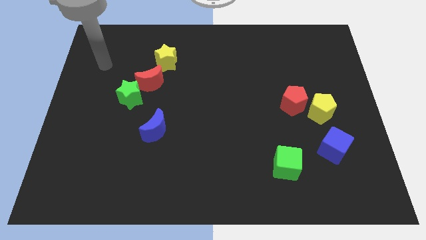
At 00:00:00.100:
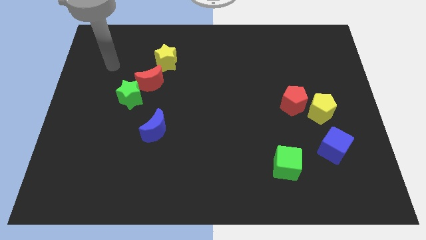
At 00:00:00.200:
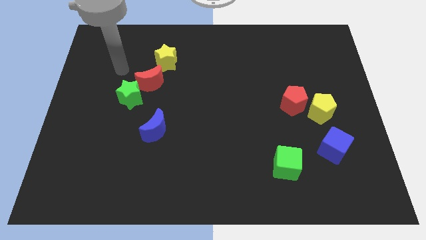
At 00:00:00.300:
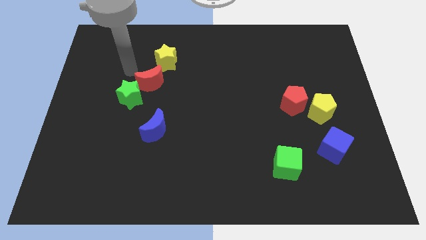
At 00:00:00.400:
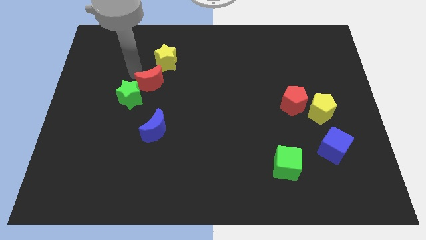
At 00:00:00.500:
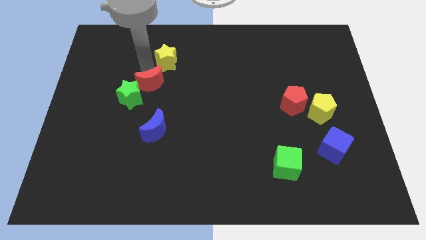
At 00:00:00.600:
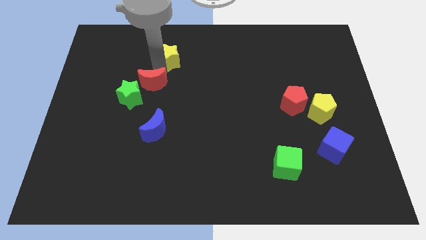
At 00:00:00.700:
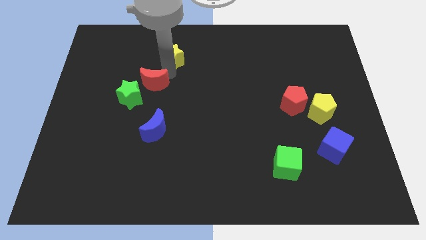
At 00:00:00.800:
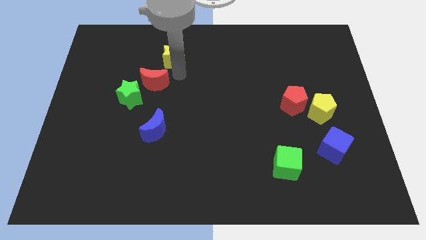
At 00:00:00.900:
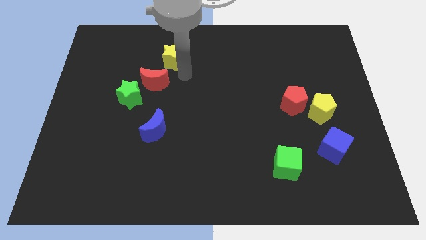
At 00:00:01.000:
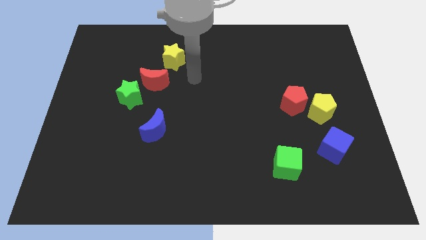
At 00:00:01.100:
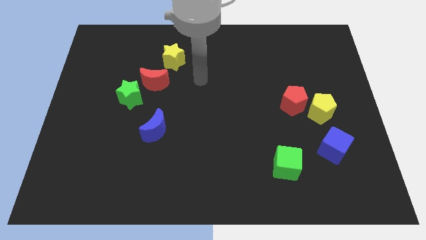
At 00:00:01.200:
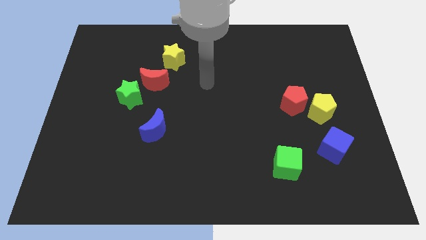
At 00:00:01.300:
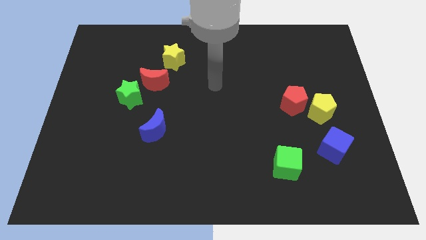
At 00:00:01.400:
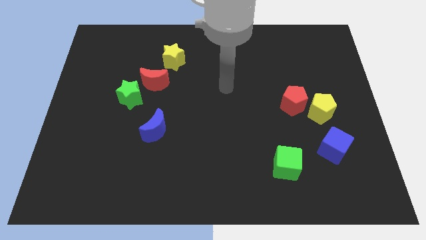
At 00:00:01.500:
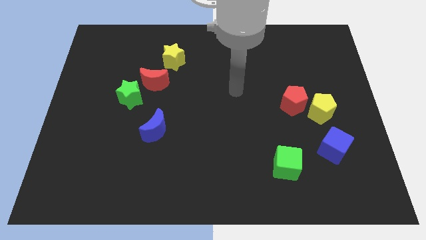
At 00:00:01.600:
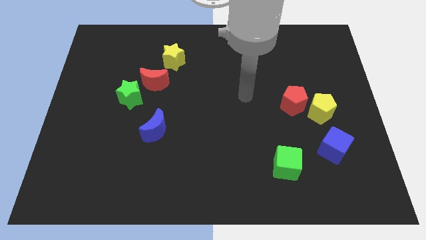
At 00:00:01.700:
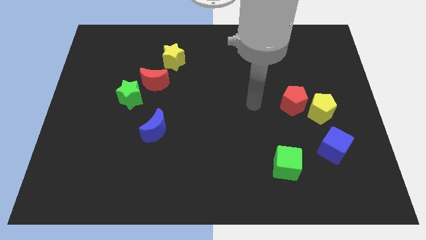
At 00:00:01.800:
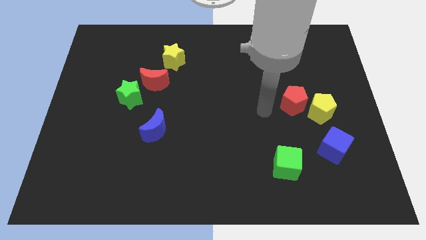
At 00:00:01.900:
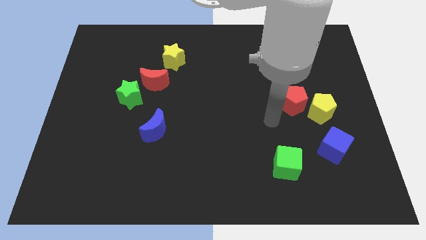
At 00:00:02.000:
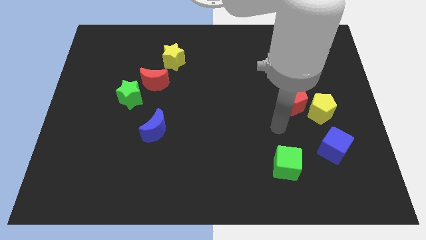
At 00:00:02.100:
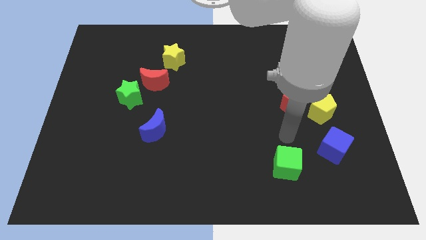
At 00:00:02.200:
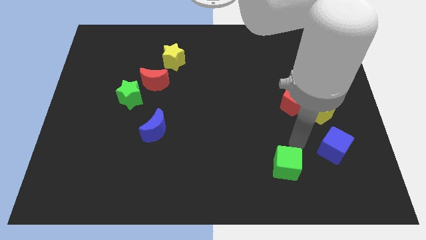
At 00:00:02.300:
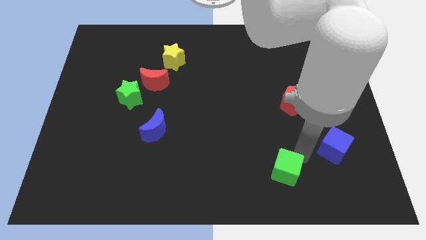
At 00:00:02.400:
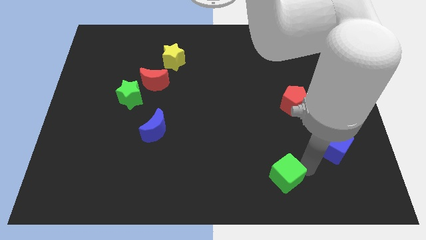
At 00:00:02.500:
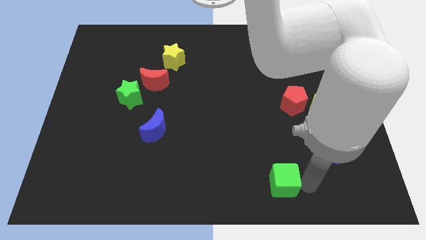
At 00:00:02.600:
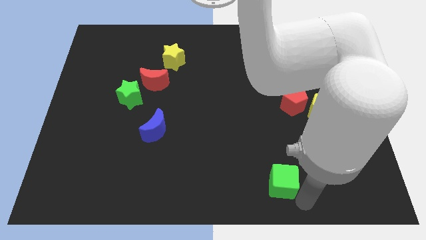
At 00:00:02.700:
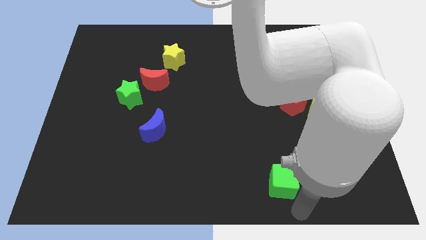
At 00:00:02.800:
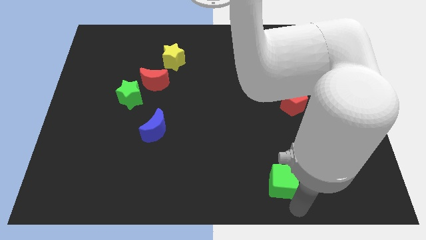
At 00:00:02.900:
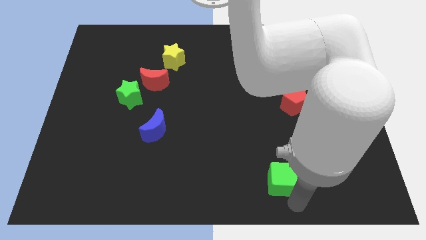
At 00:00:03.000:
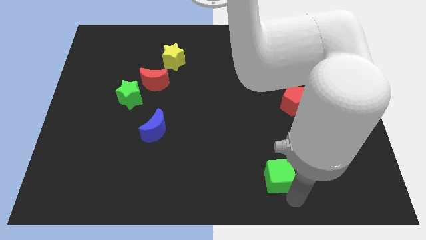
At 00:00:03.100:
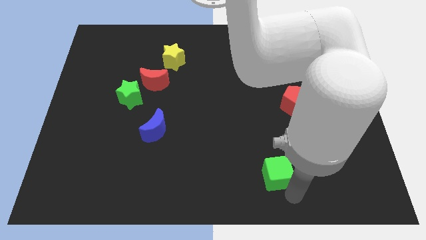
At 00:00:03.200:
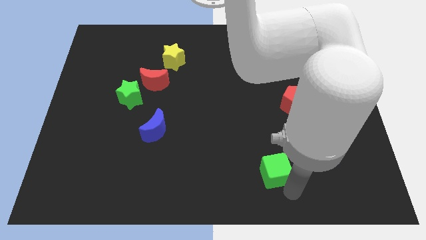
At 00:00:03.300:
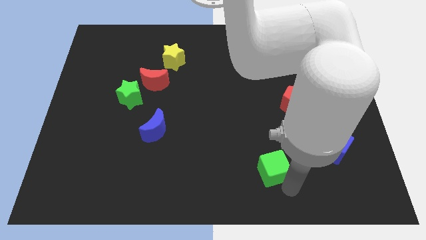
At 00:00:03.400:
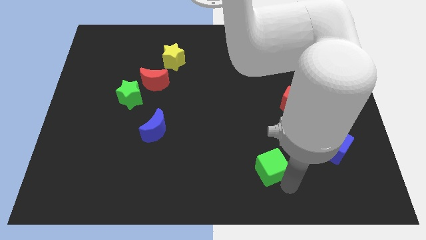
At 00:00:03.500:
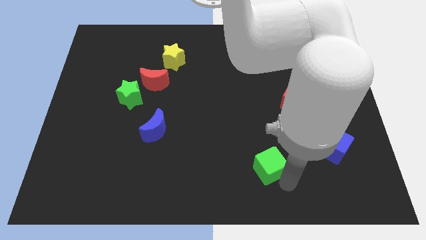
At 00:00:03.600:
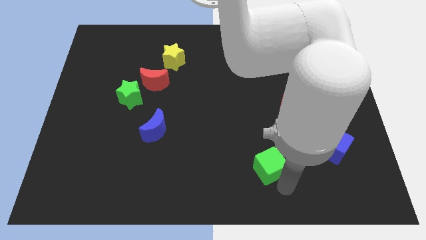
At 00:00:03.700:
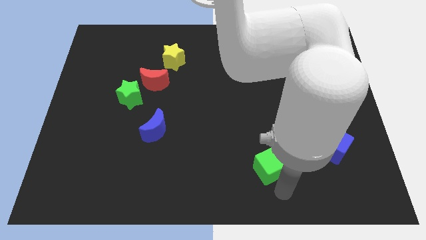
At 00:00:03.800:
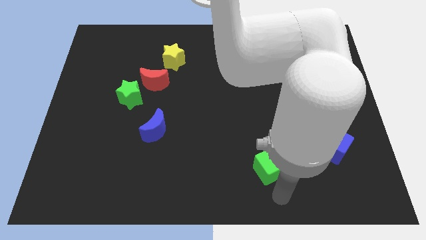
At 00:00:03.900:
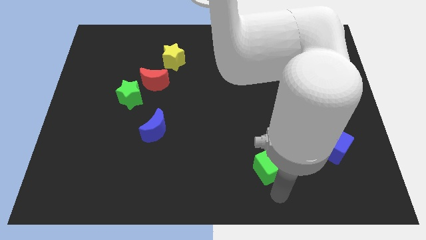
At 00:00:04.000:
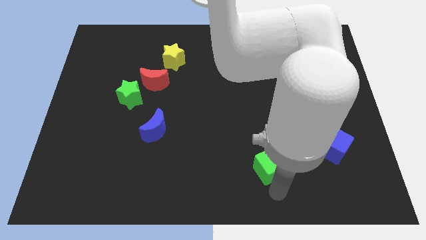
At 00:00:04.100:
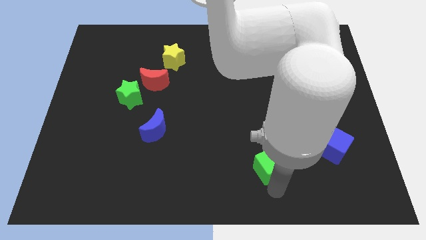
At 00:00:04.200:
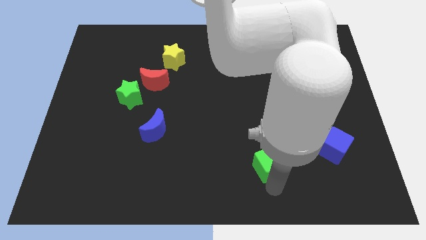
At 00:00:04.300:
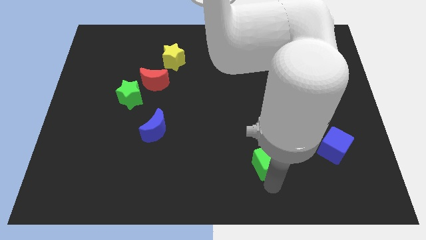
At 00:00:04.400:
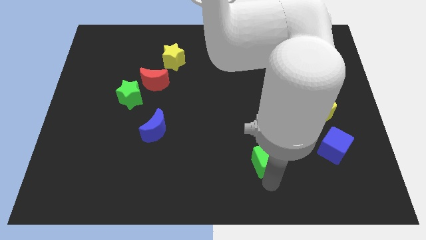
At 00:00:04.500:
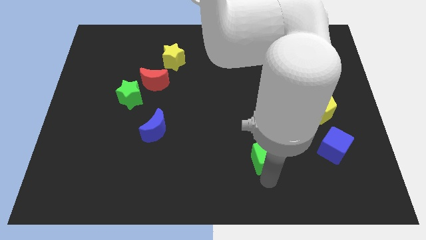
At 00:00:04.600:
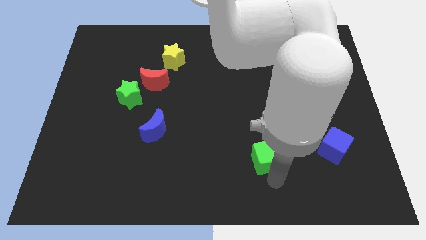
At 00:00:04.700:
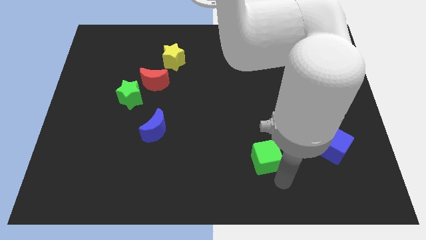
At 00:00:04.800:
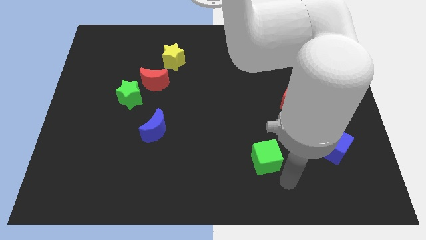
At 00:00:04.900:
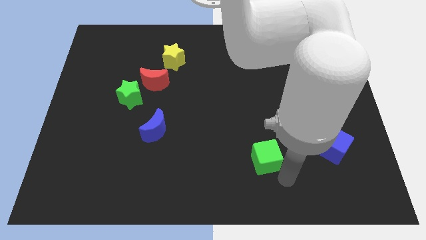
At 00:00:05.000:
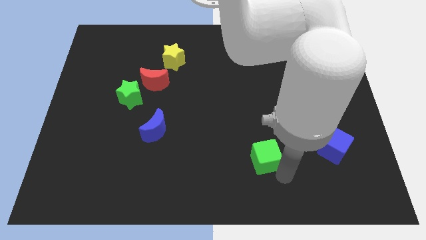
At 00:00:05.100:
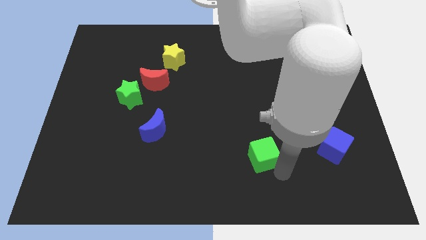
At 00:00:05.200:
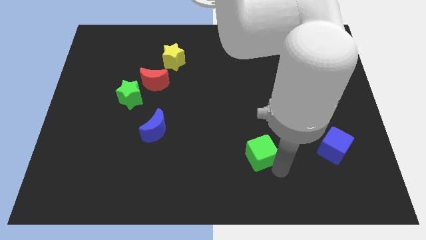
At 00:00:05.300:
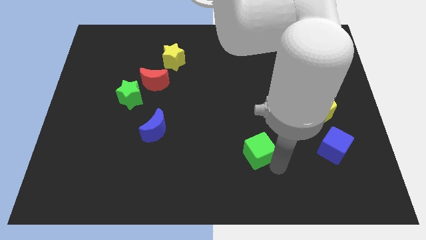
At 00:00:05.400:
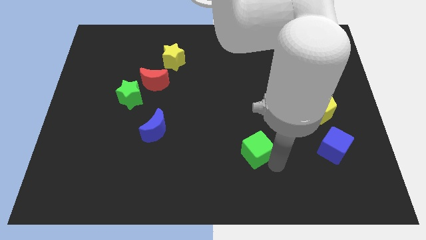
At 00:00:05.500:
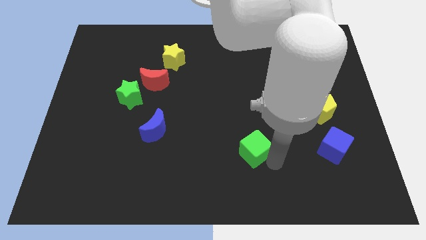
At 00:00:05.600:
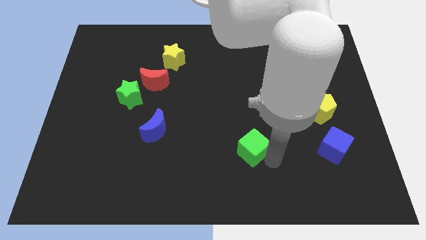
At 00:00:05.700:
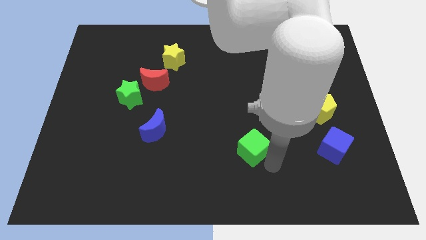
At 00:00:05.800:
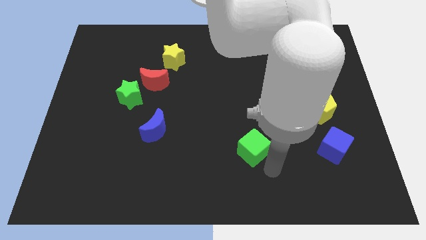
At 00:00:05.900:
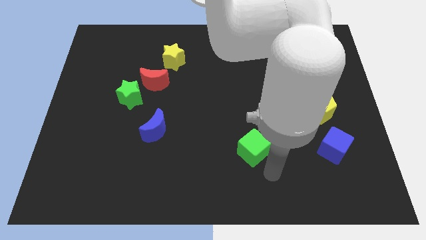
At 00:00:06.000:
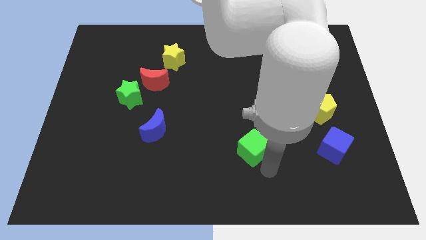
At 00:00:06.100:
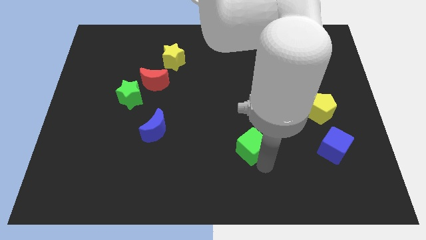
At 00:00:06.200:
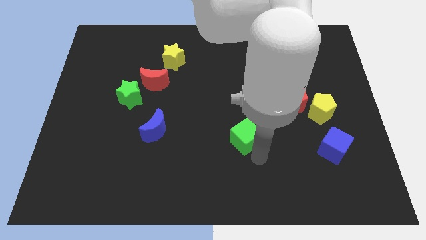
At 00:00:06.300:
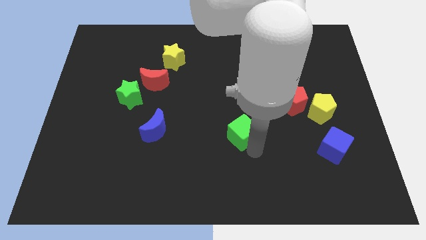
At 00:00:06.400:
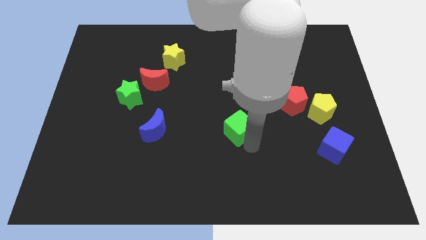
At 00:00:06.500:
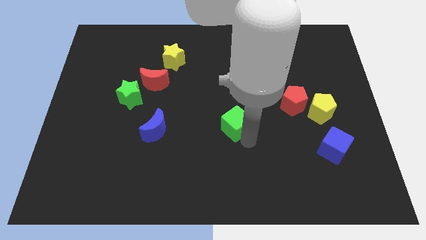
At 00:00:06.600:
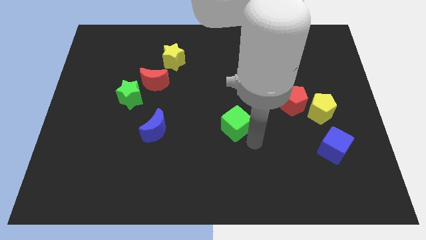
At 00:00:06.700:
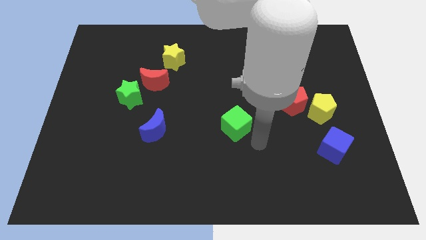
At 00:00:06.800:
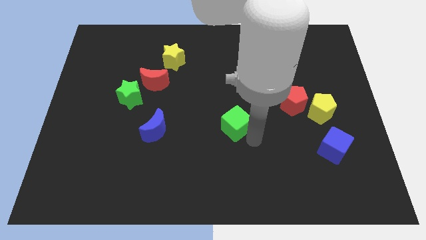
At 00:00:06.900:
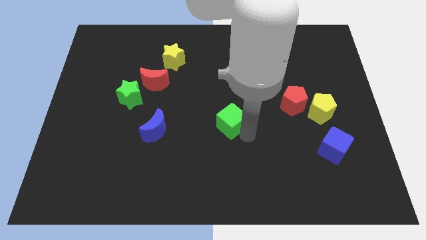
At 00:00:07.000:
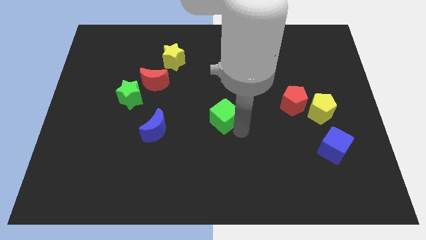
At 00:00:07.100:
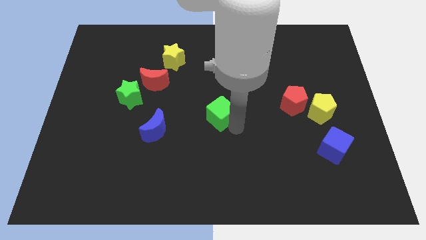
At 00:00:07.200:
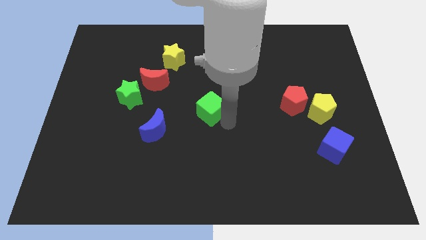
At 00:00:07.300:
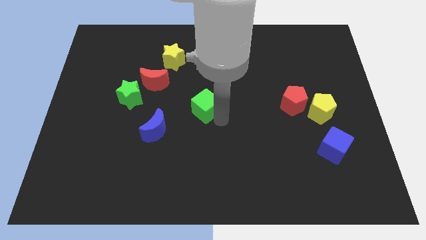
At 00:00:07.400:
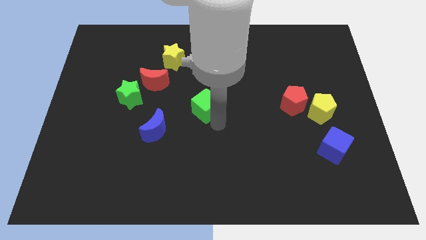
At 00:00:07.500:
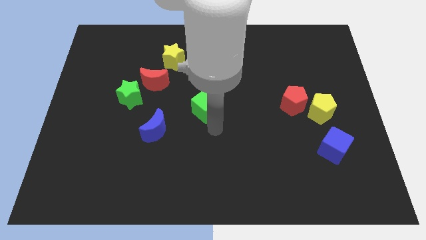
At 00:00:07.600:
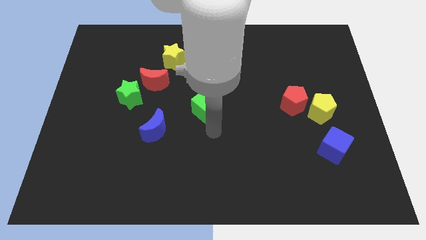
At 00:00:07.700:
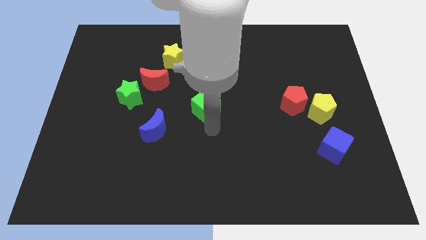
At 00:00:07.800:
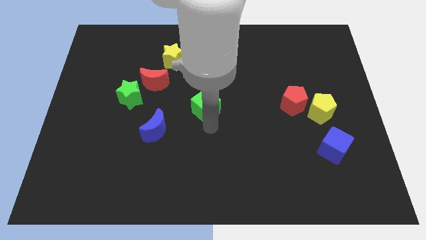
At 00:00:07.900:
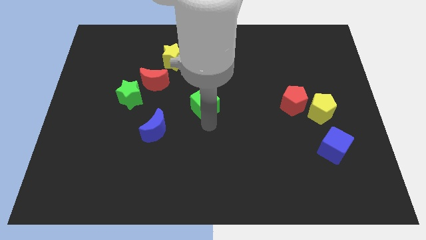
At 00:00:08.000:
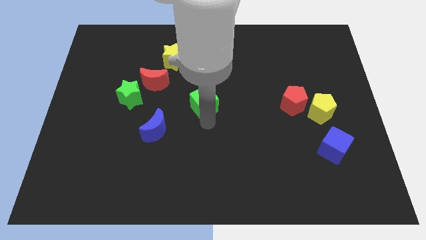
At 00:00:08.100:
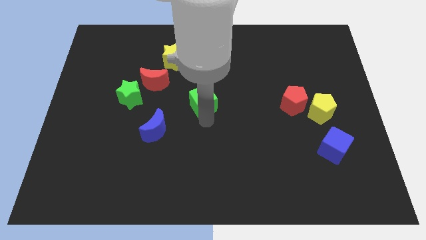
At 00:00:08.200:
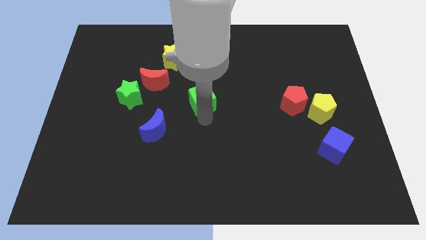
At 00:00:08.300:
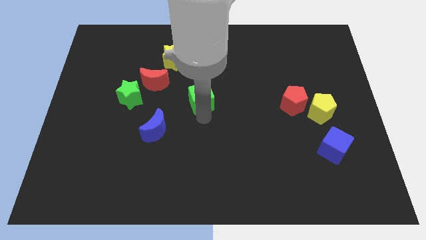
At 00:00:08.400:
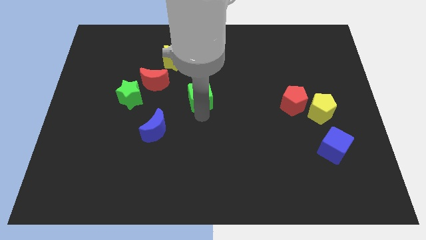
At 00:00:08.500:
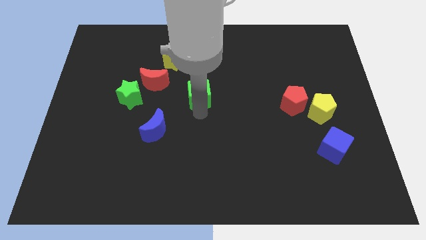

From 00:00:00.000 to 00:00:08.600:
slide the green cube right of the red moon
